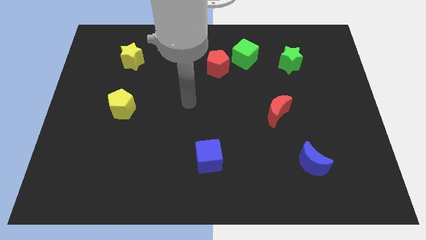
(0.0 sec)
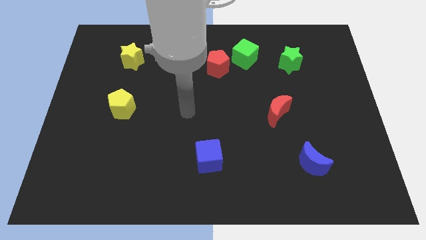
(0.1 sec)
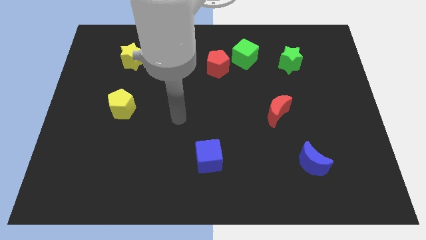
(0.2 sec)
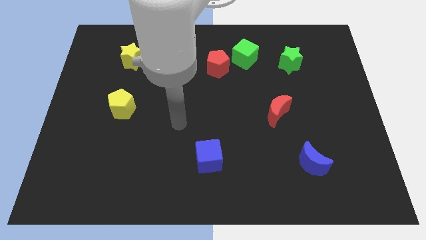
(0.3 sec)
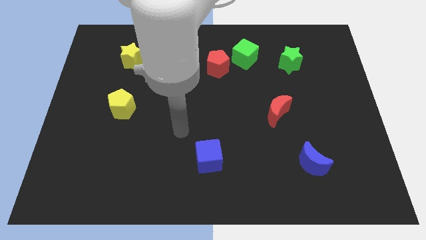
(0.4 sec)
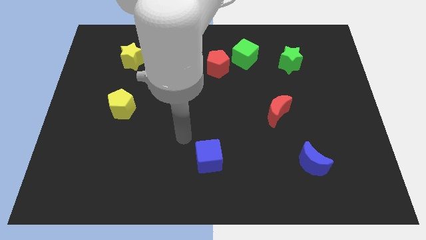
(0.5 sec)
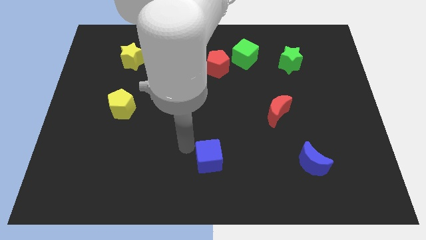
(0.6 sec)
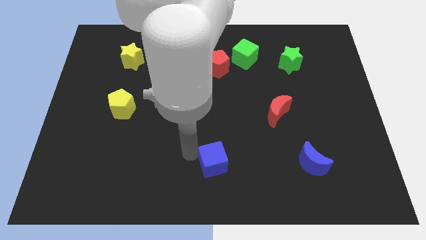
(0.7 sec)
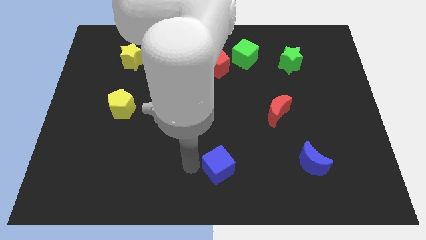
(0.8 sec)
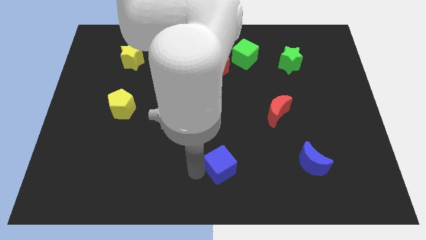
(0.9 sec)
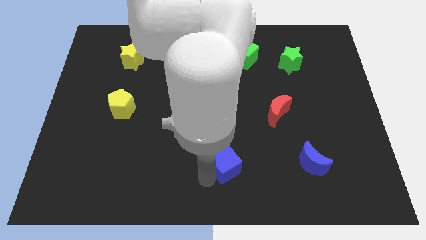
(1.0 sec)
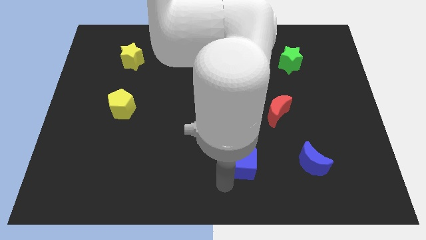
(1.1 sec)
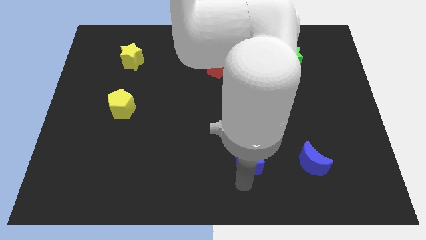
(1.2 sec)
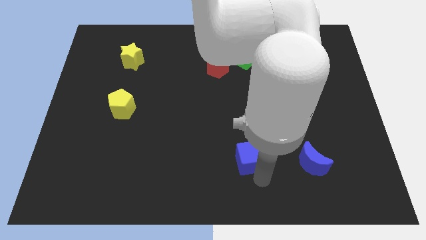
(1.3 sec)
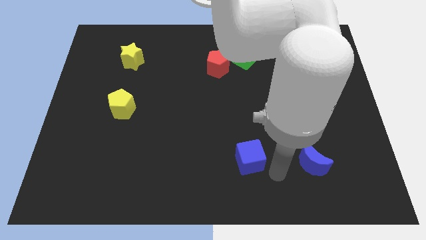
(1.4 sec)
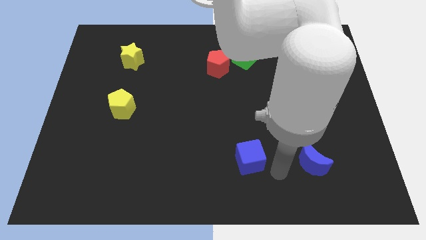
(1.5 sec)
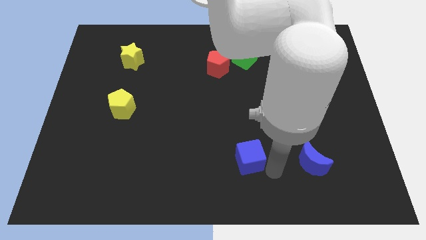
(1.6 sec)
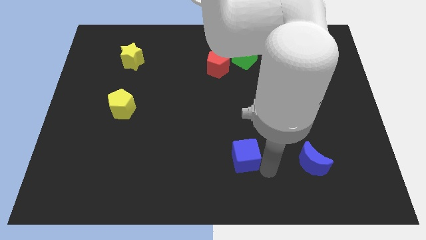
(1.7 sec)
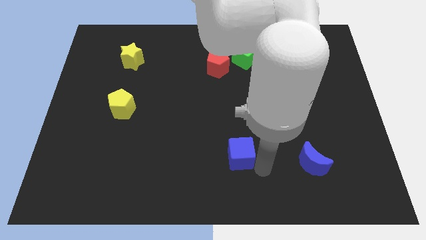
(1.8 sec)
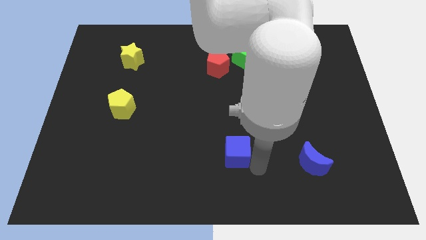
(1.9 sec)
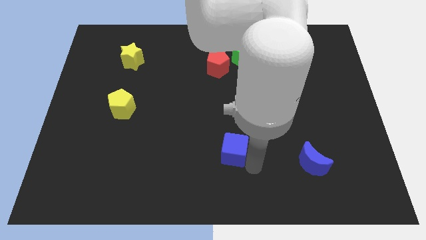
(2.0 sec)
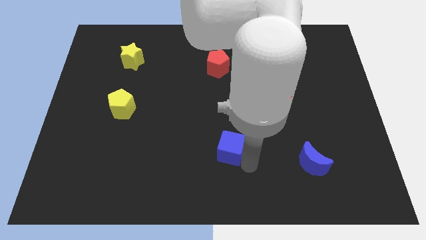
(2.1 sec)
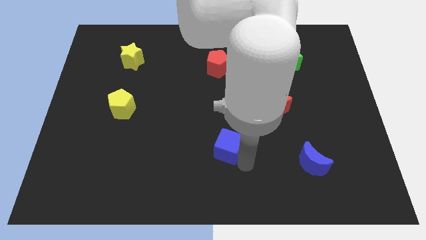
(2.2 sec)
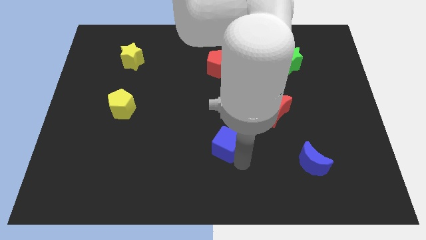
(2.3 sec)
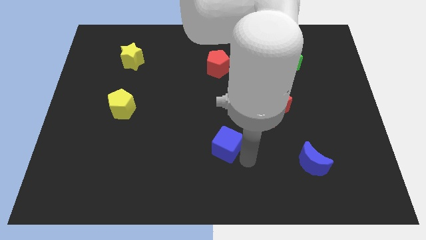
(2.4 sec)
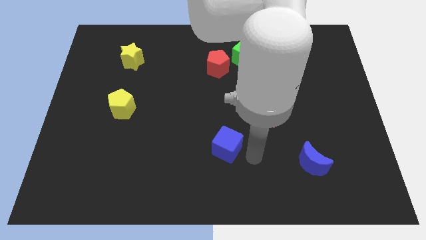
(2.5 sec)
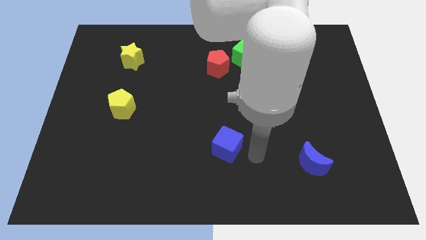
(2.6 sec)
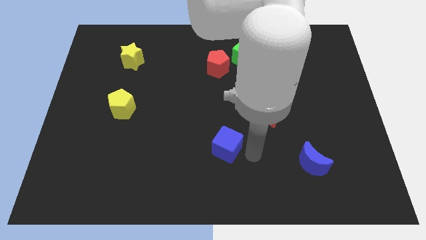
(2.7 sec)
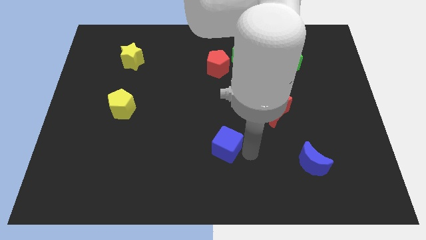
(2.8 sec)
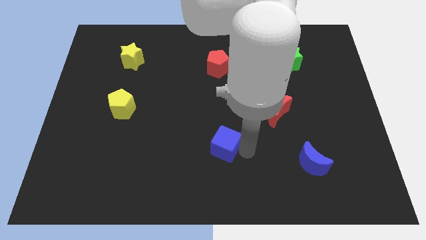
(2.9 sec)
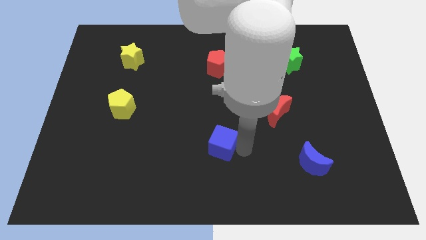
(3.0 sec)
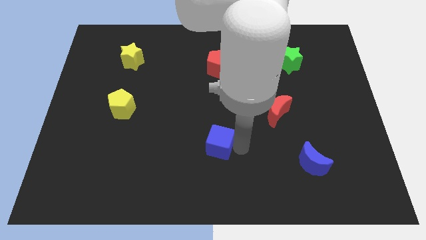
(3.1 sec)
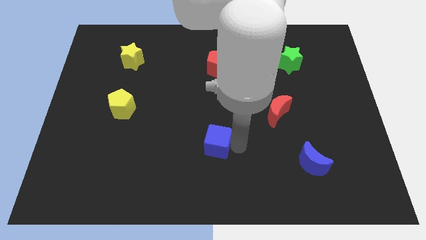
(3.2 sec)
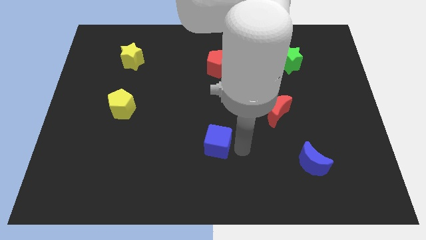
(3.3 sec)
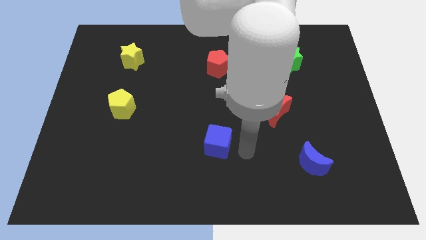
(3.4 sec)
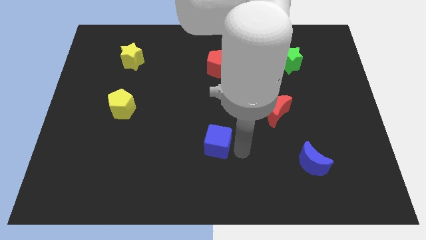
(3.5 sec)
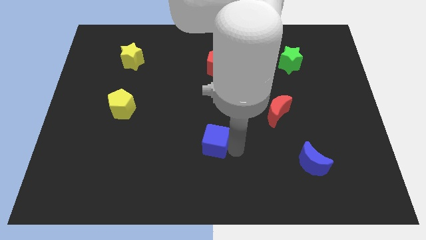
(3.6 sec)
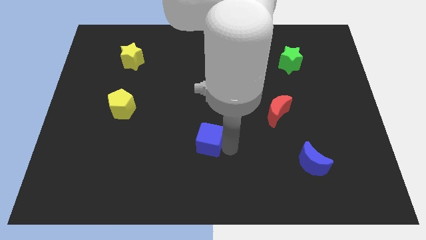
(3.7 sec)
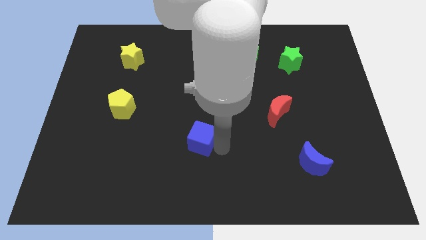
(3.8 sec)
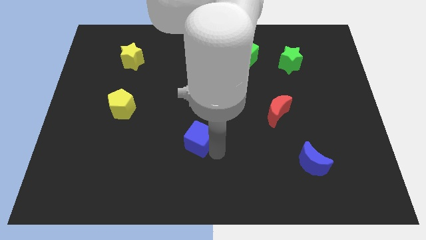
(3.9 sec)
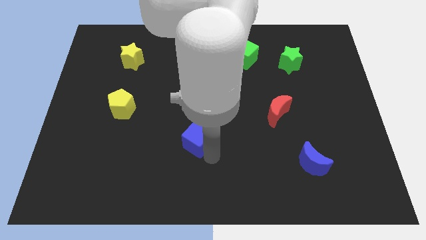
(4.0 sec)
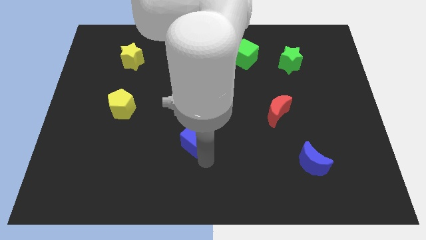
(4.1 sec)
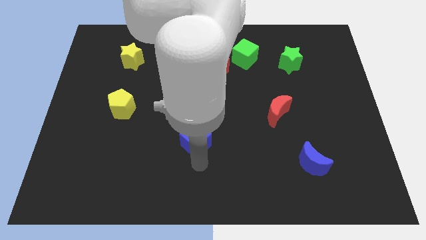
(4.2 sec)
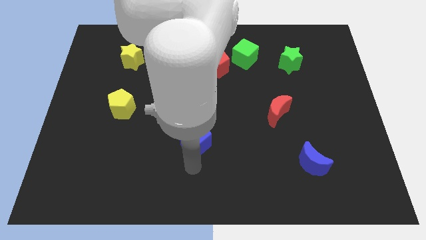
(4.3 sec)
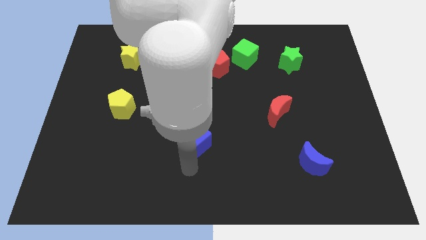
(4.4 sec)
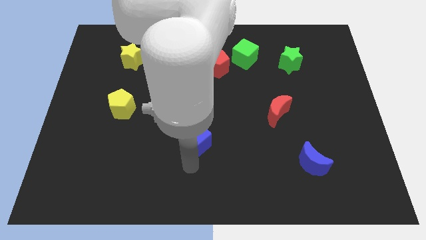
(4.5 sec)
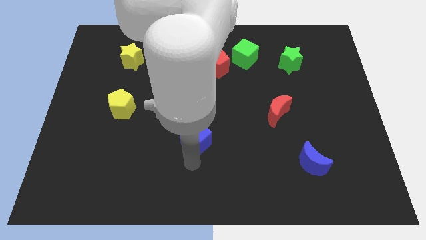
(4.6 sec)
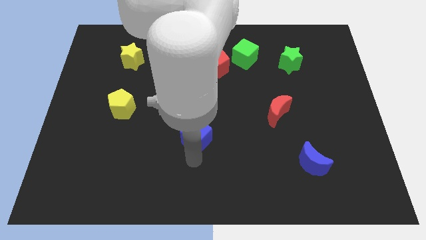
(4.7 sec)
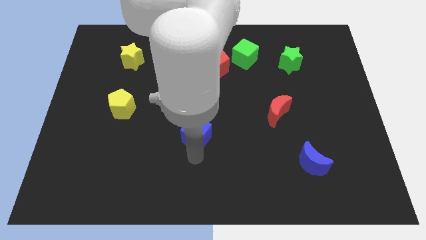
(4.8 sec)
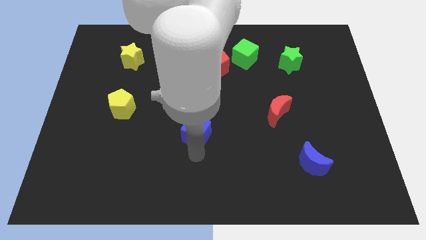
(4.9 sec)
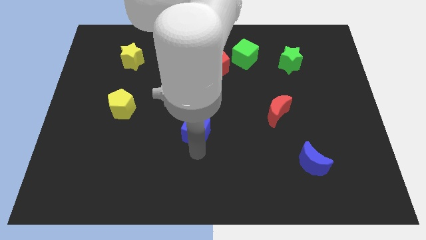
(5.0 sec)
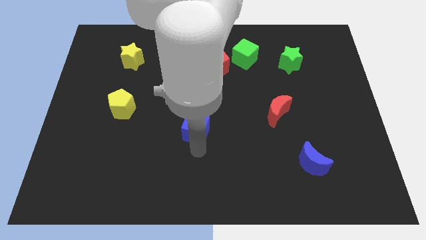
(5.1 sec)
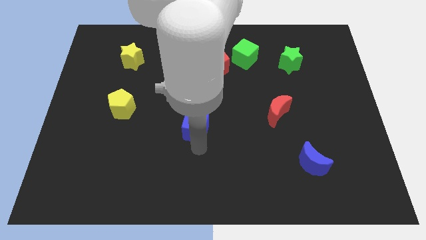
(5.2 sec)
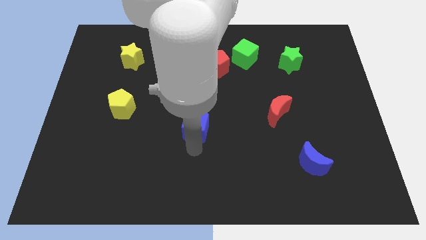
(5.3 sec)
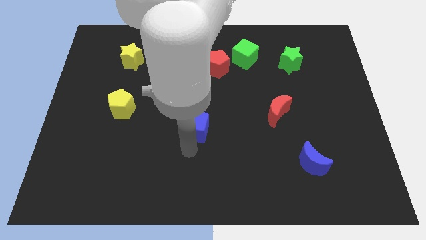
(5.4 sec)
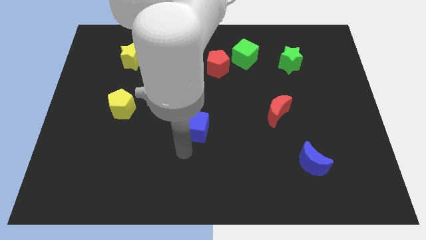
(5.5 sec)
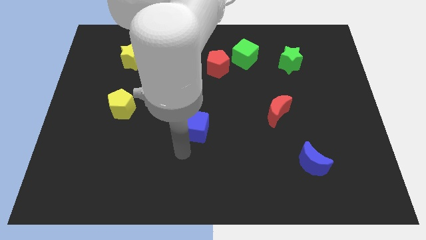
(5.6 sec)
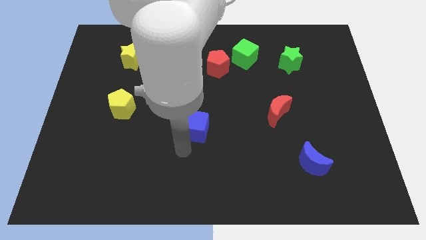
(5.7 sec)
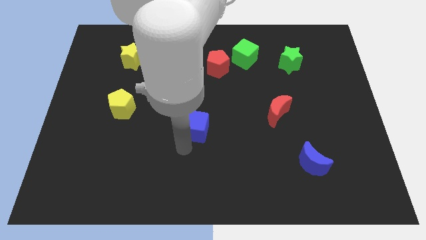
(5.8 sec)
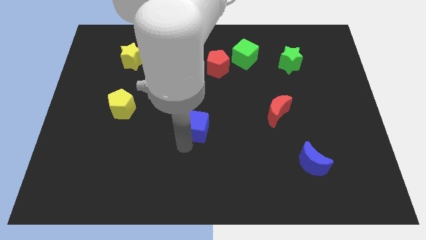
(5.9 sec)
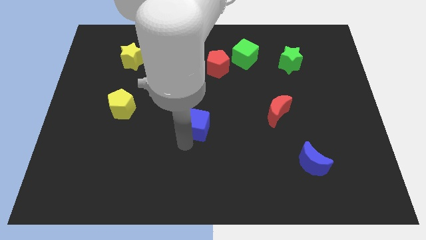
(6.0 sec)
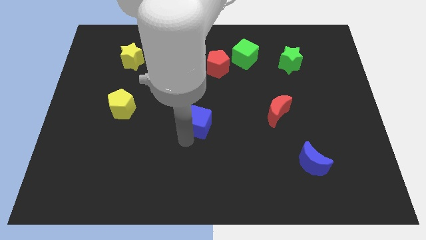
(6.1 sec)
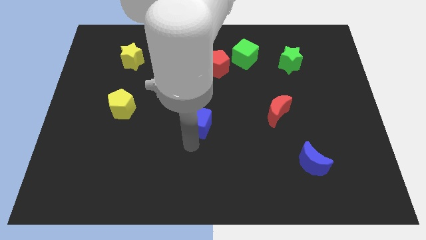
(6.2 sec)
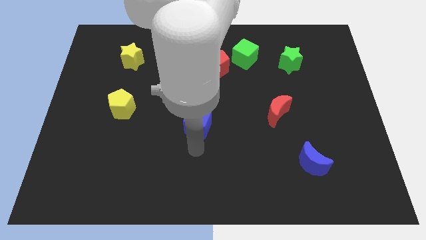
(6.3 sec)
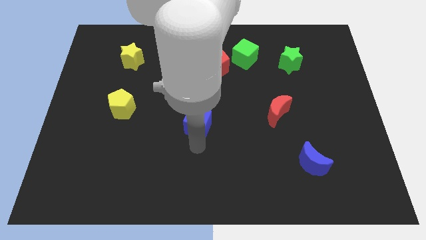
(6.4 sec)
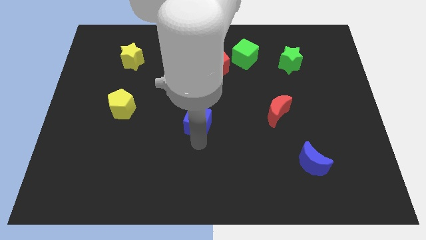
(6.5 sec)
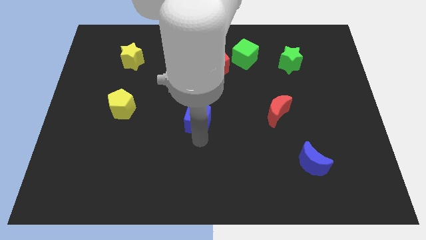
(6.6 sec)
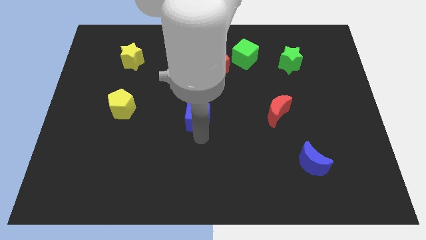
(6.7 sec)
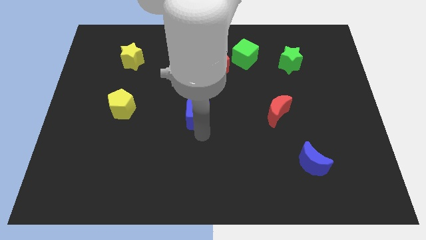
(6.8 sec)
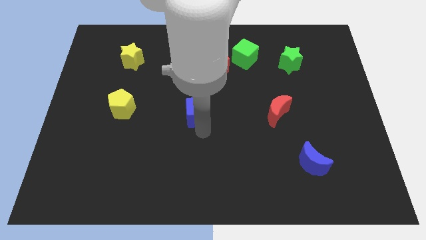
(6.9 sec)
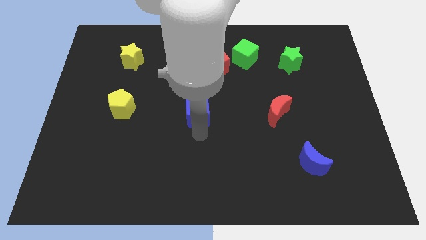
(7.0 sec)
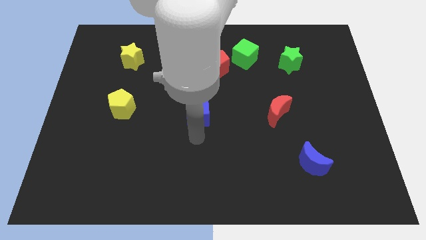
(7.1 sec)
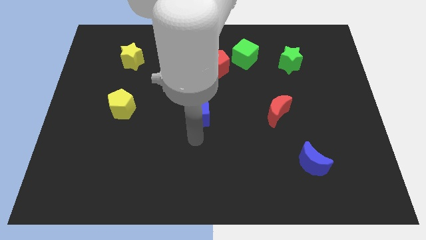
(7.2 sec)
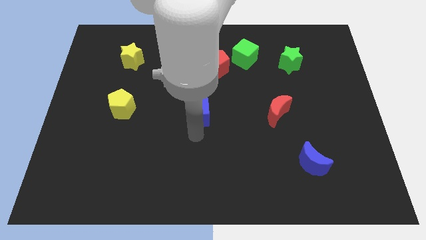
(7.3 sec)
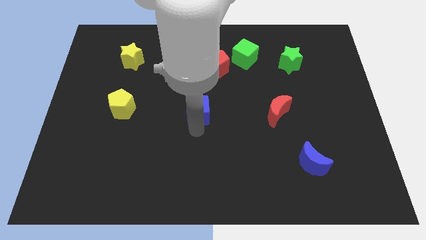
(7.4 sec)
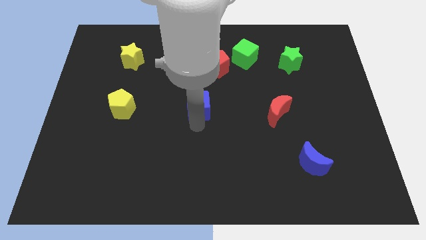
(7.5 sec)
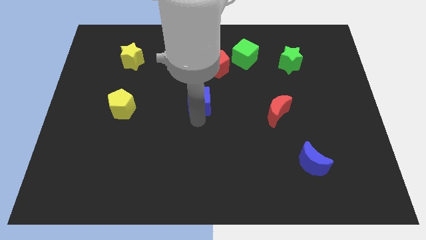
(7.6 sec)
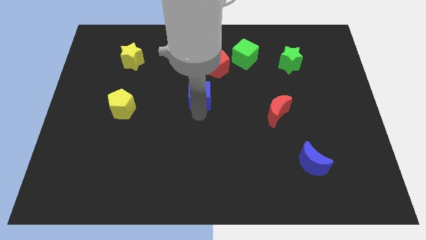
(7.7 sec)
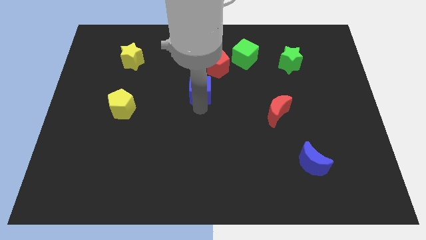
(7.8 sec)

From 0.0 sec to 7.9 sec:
move the blue cube diagonally down and to the left of the red pentagon

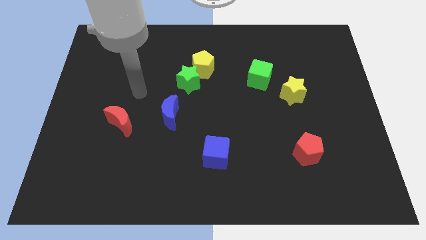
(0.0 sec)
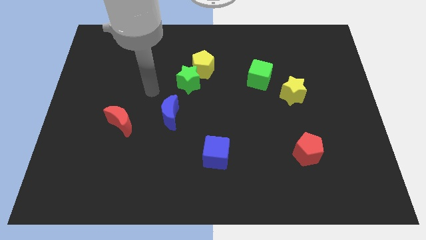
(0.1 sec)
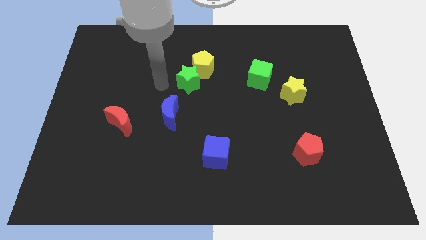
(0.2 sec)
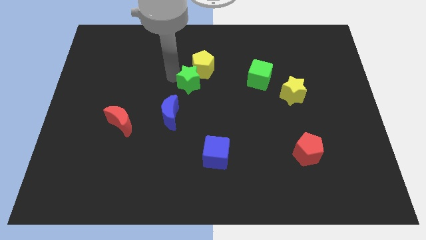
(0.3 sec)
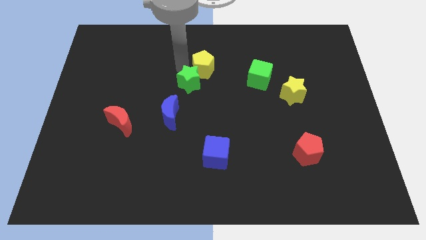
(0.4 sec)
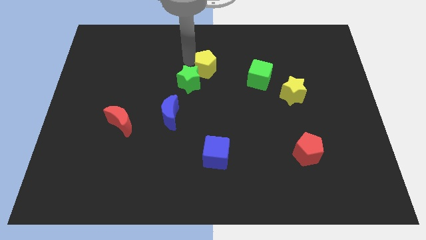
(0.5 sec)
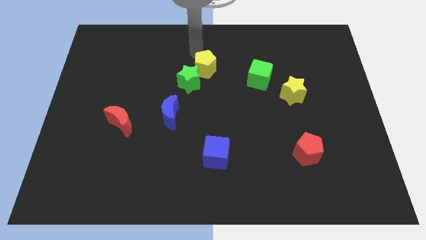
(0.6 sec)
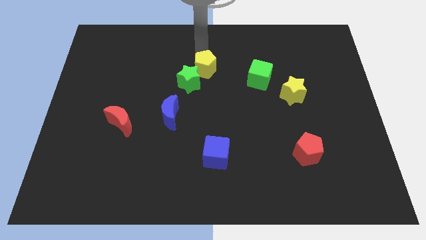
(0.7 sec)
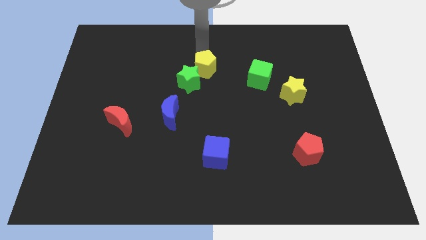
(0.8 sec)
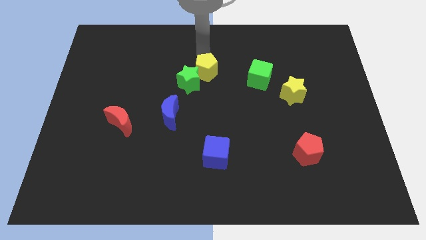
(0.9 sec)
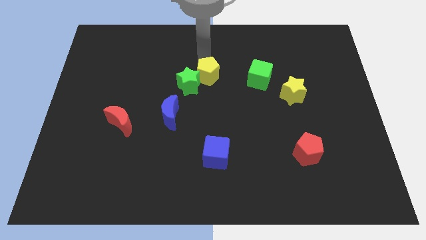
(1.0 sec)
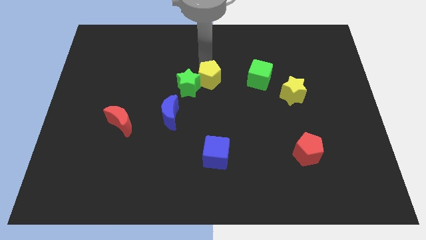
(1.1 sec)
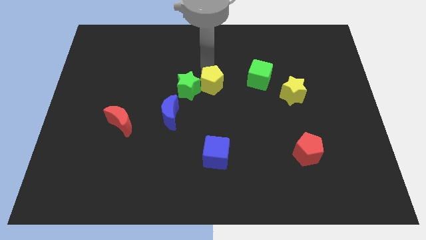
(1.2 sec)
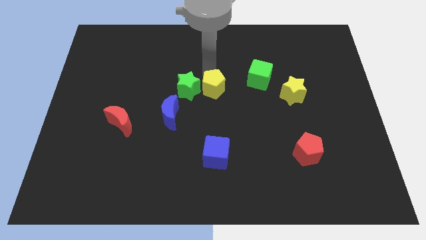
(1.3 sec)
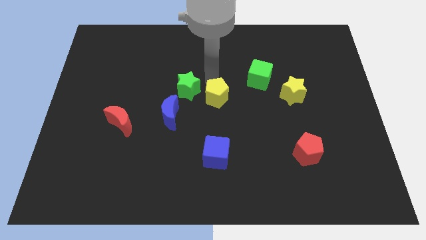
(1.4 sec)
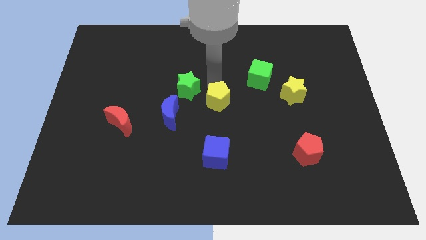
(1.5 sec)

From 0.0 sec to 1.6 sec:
slide the yellow pentagon to the right side of the blue moon
